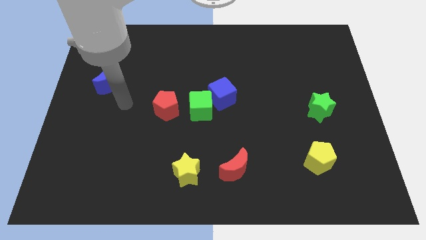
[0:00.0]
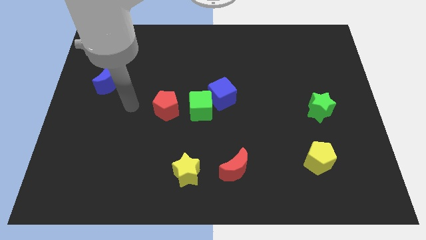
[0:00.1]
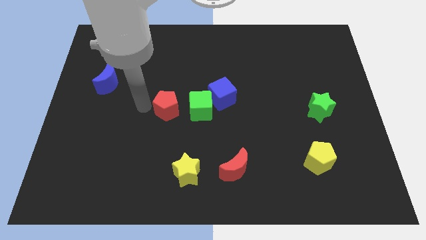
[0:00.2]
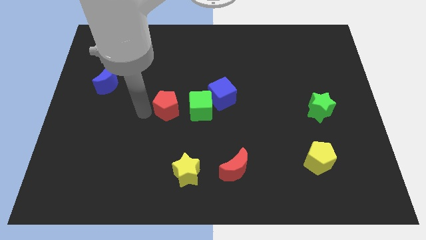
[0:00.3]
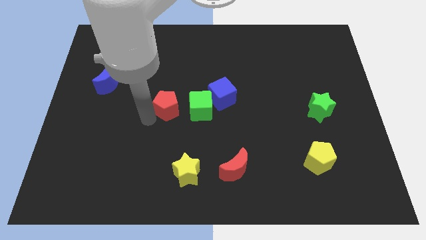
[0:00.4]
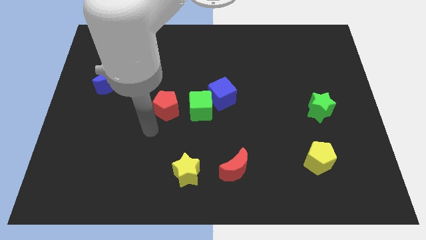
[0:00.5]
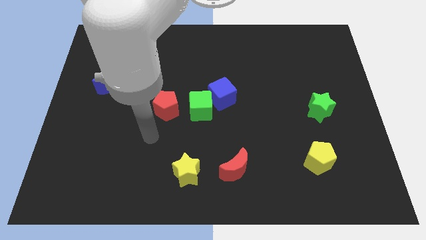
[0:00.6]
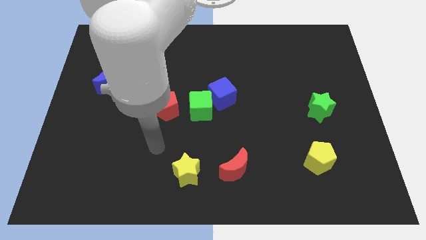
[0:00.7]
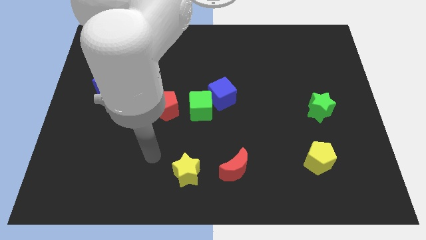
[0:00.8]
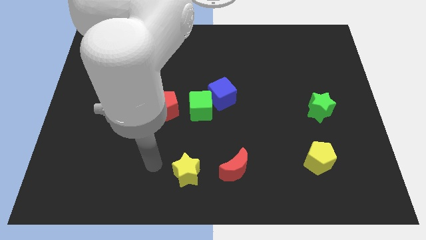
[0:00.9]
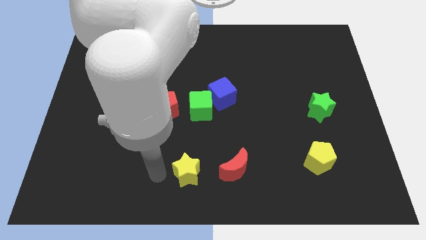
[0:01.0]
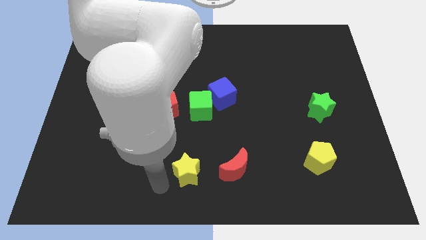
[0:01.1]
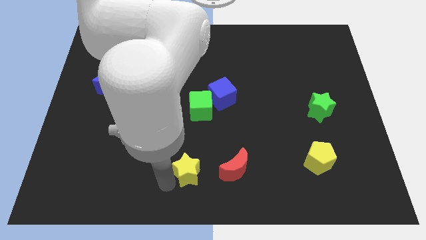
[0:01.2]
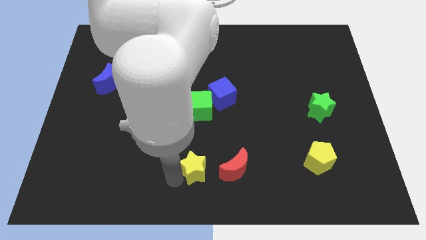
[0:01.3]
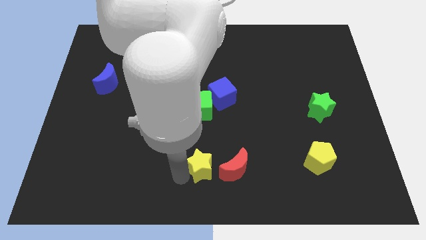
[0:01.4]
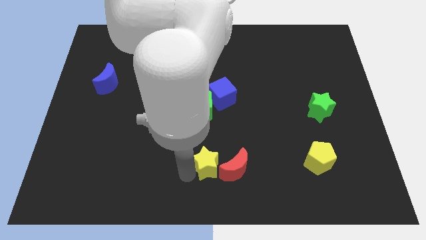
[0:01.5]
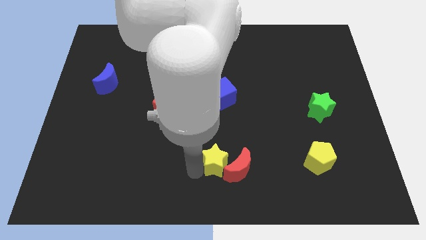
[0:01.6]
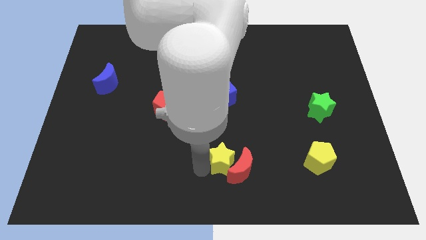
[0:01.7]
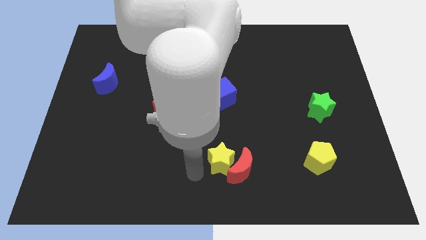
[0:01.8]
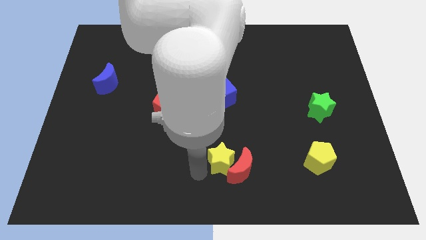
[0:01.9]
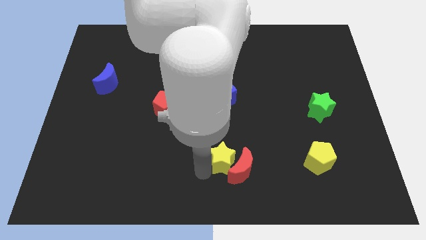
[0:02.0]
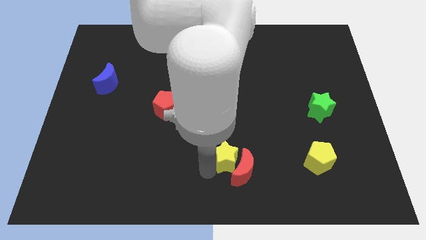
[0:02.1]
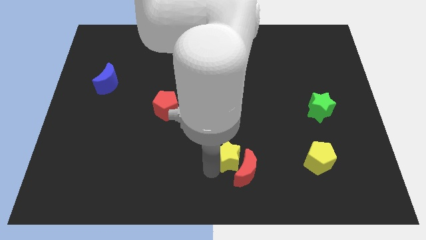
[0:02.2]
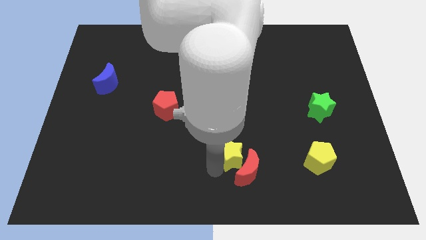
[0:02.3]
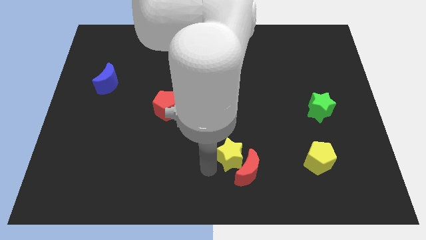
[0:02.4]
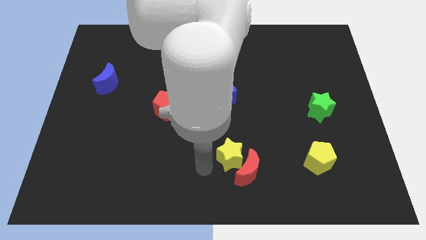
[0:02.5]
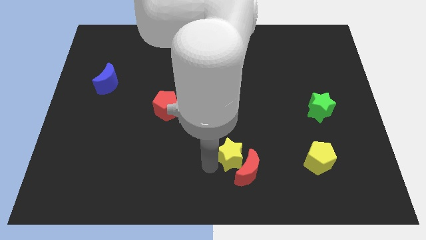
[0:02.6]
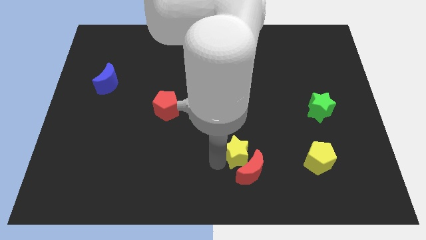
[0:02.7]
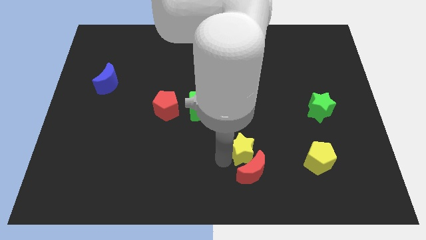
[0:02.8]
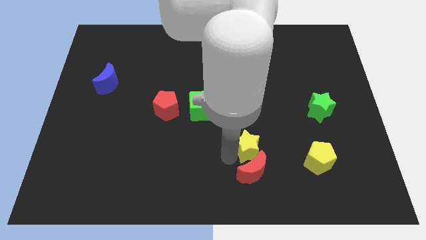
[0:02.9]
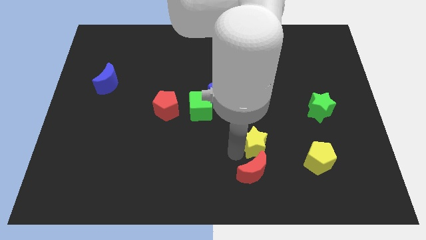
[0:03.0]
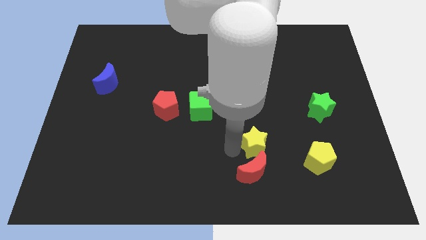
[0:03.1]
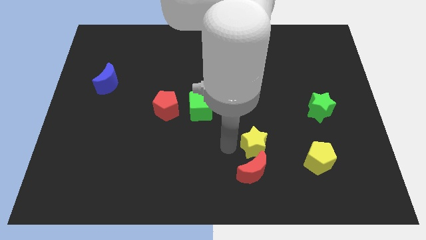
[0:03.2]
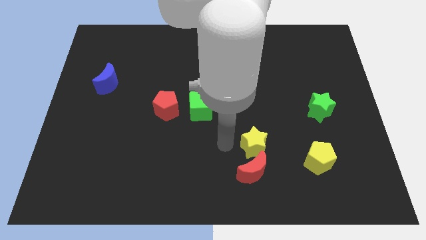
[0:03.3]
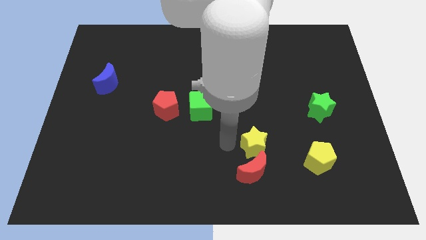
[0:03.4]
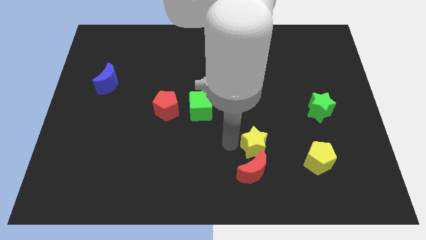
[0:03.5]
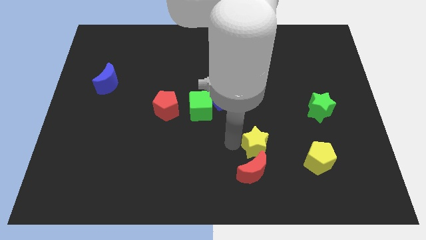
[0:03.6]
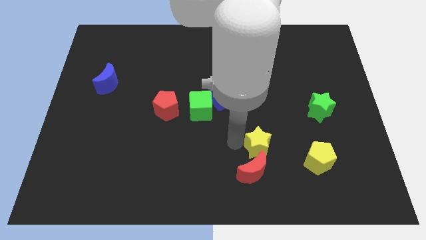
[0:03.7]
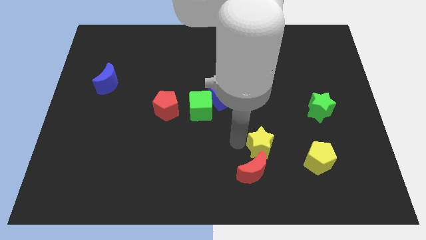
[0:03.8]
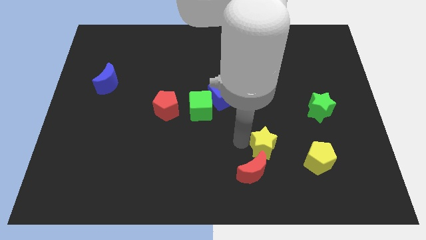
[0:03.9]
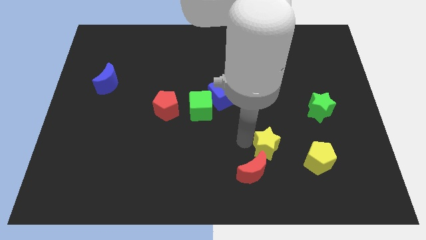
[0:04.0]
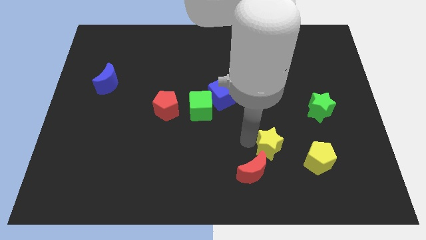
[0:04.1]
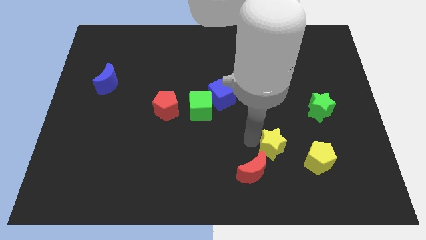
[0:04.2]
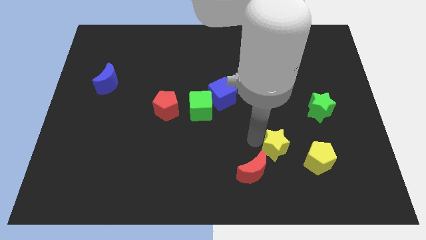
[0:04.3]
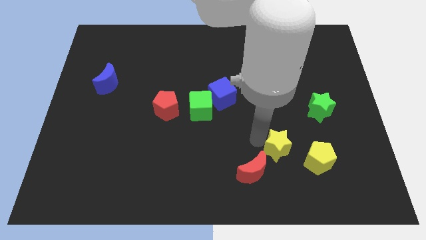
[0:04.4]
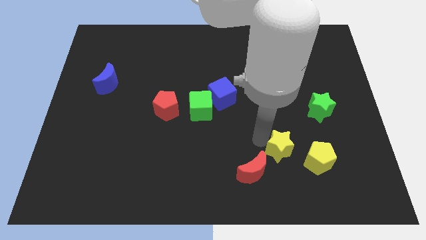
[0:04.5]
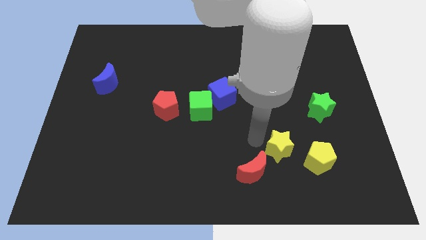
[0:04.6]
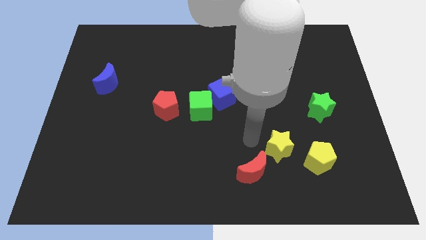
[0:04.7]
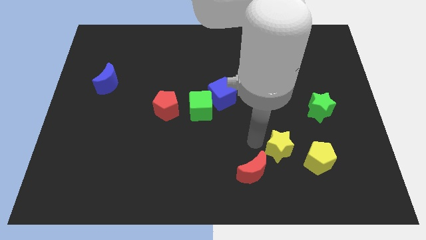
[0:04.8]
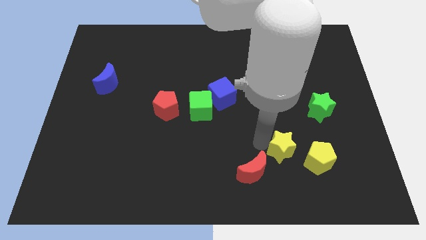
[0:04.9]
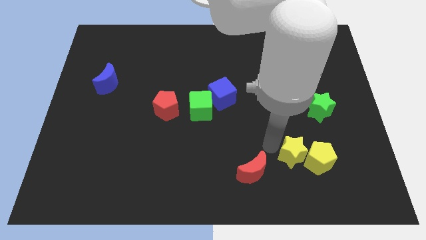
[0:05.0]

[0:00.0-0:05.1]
push the yellow star next to the yellow pentagon

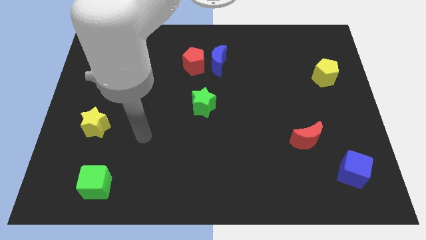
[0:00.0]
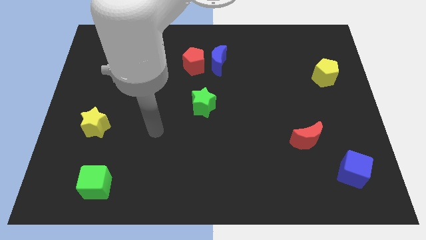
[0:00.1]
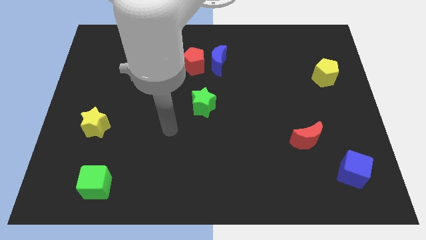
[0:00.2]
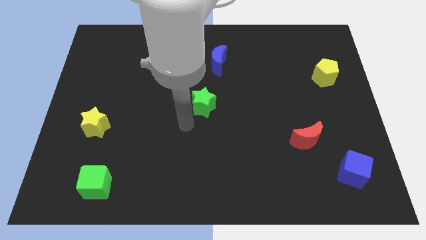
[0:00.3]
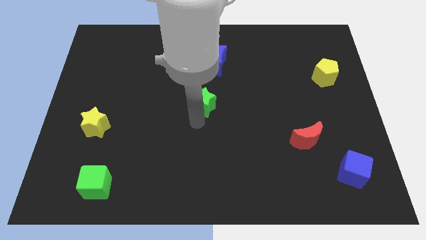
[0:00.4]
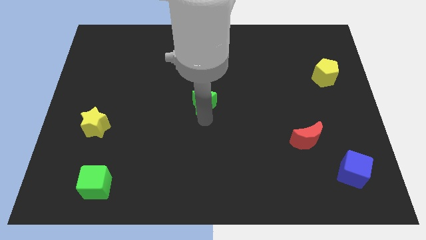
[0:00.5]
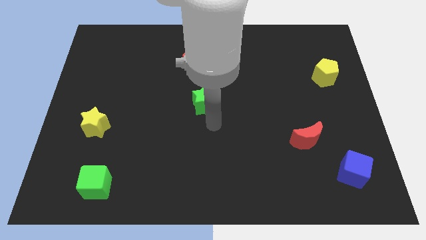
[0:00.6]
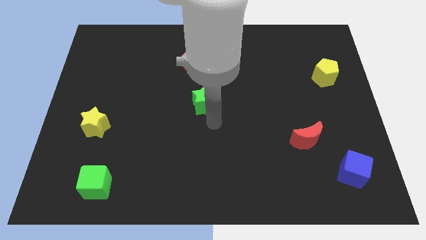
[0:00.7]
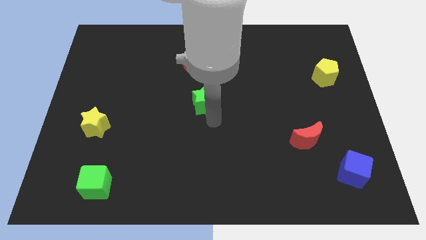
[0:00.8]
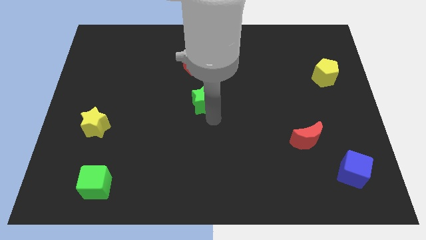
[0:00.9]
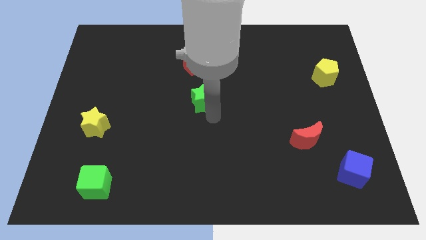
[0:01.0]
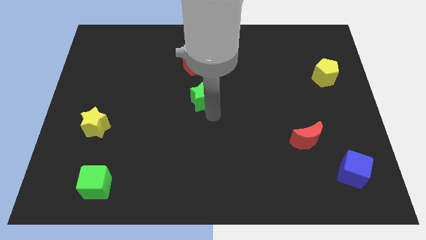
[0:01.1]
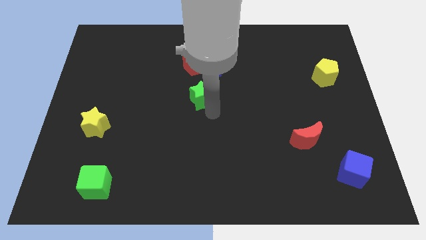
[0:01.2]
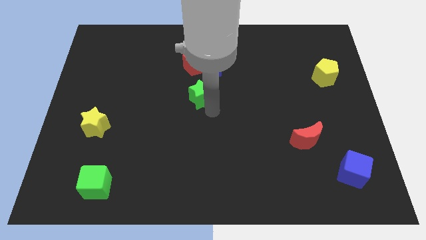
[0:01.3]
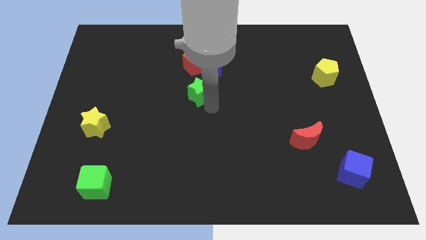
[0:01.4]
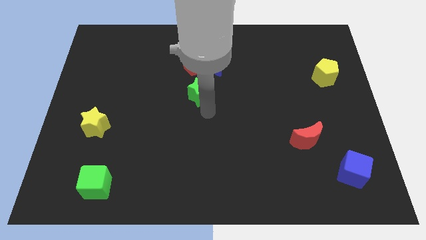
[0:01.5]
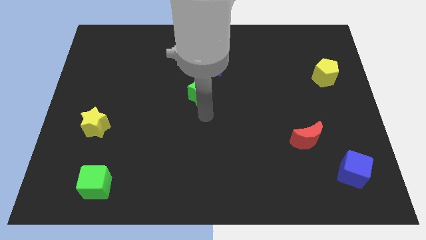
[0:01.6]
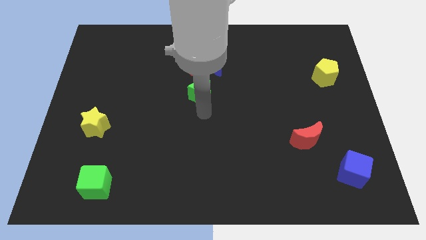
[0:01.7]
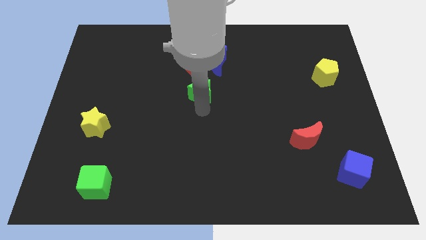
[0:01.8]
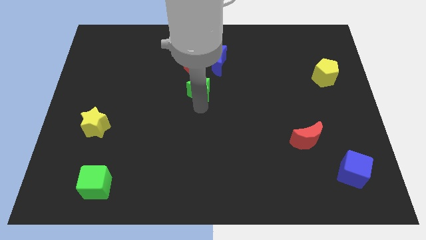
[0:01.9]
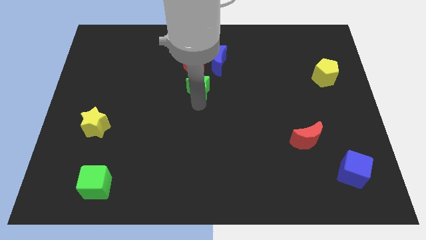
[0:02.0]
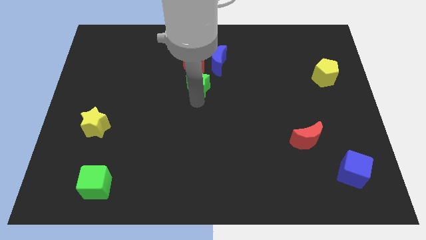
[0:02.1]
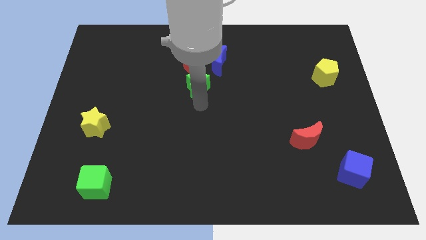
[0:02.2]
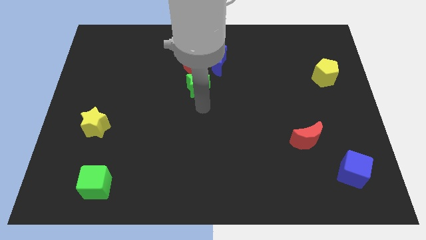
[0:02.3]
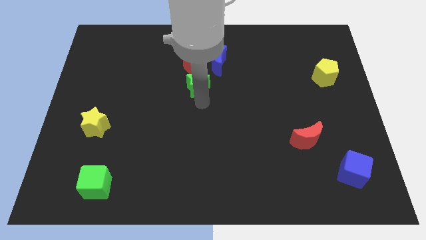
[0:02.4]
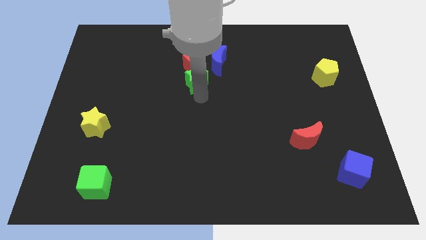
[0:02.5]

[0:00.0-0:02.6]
put the green star to the red pentagon
